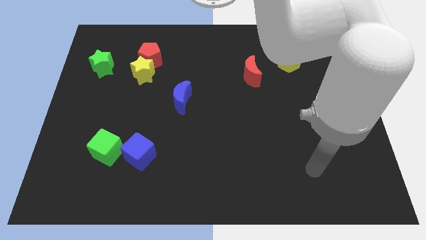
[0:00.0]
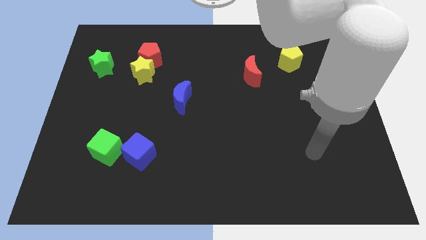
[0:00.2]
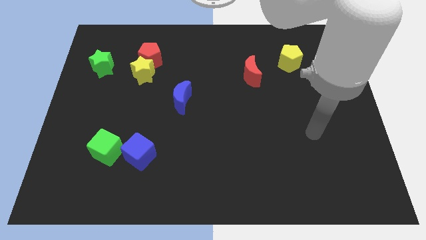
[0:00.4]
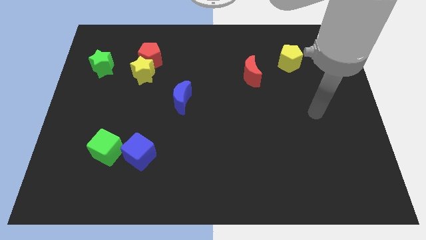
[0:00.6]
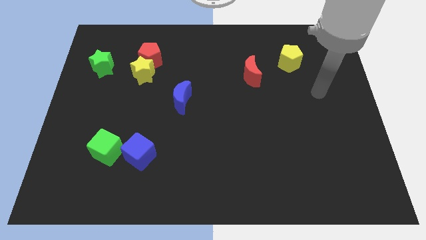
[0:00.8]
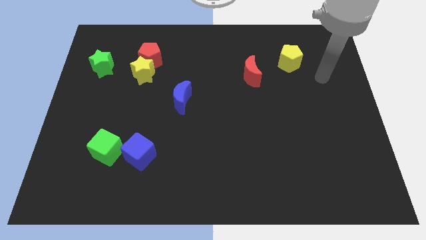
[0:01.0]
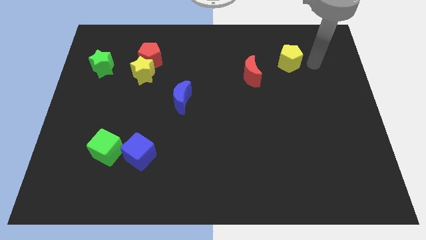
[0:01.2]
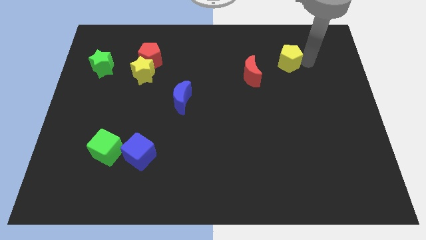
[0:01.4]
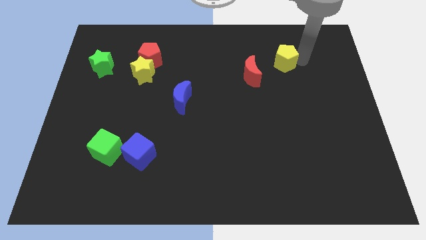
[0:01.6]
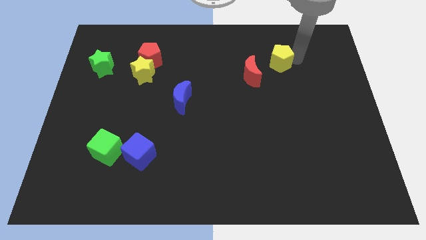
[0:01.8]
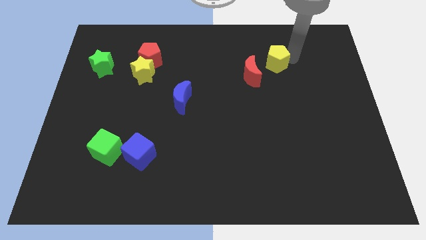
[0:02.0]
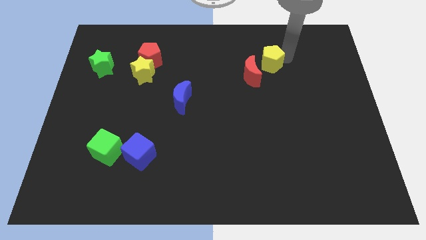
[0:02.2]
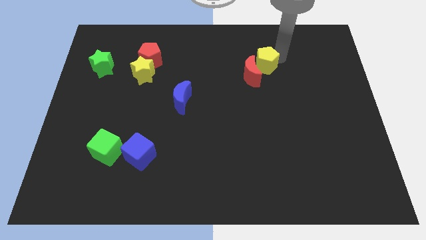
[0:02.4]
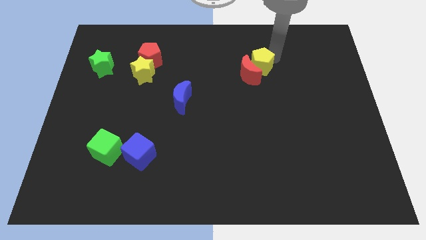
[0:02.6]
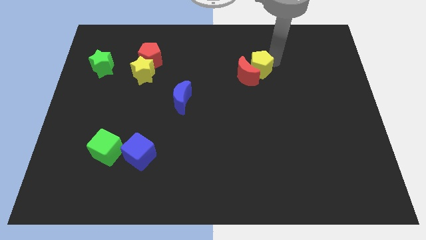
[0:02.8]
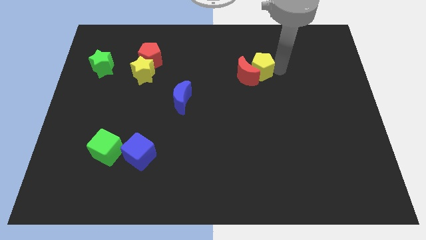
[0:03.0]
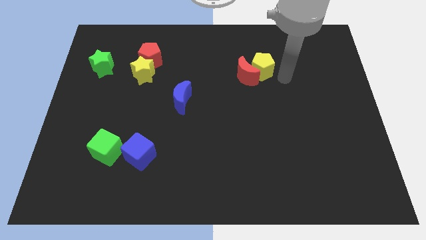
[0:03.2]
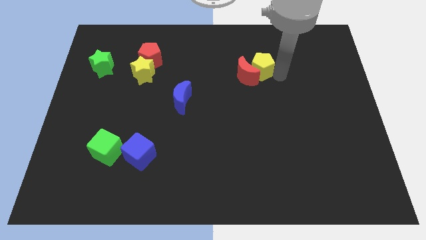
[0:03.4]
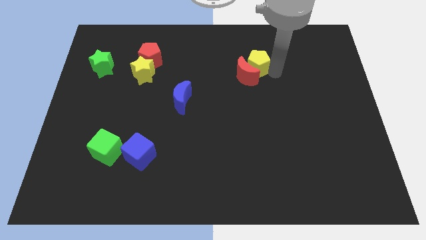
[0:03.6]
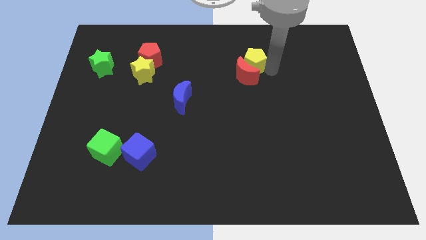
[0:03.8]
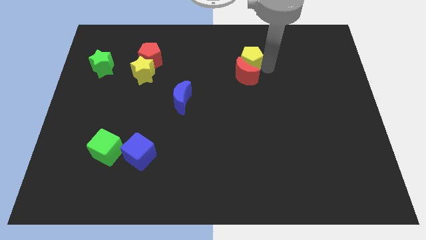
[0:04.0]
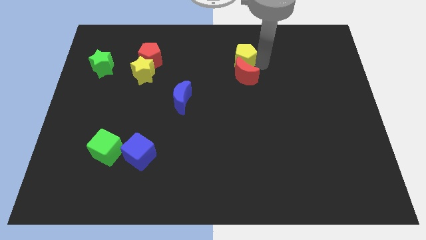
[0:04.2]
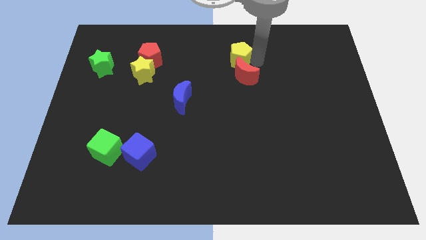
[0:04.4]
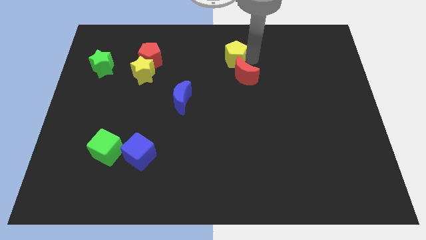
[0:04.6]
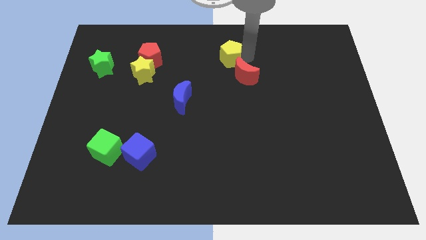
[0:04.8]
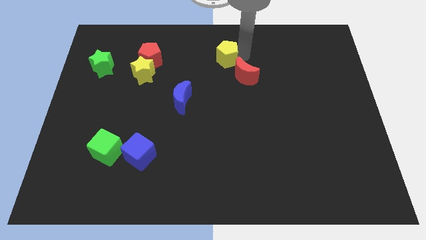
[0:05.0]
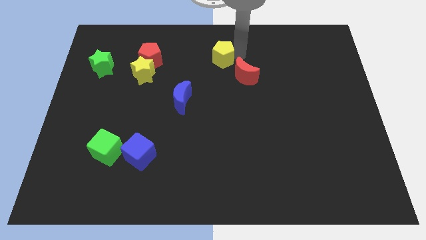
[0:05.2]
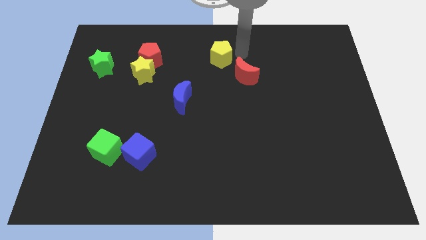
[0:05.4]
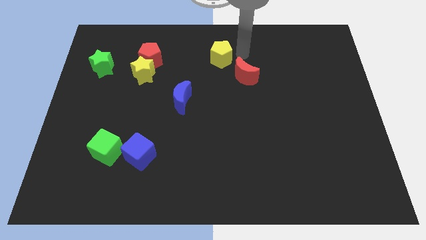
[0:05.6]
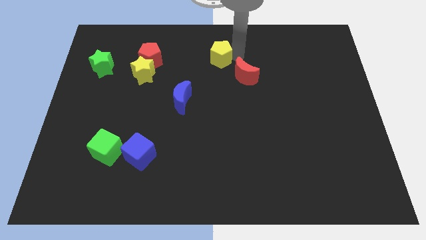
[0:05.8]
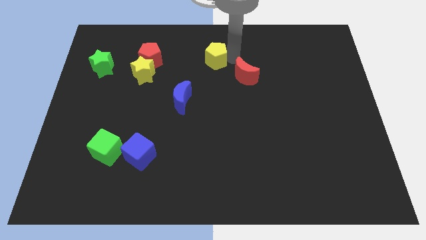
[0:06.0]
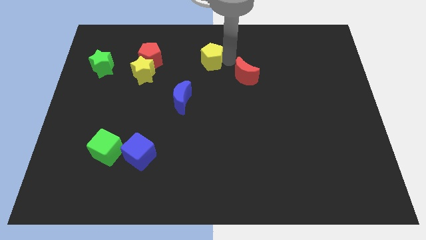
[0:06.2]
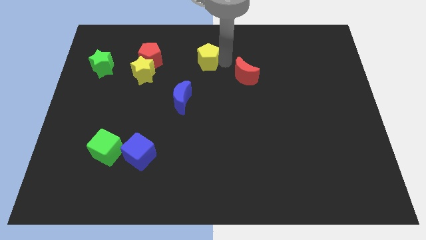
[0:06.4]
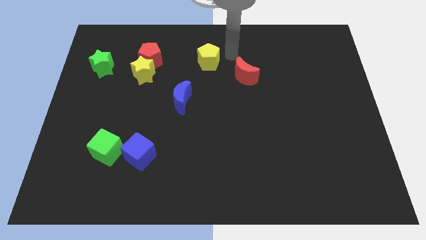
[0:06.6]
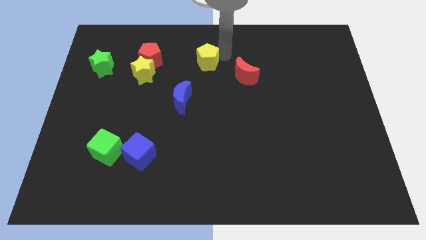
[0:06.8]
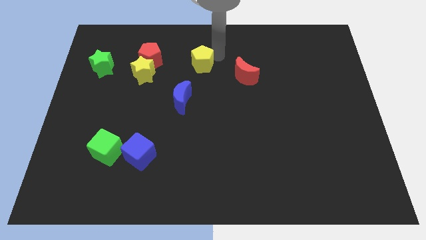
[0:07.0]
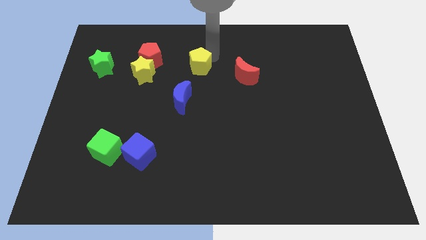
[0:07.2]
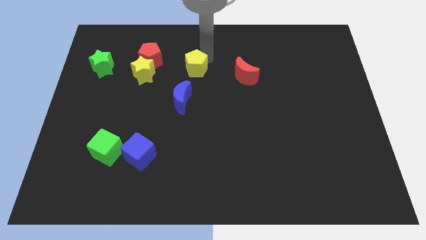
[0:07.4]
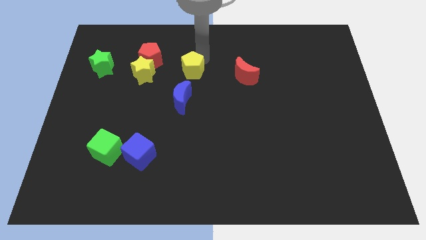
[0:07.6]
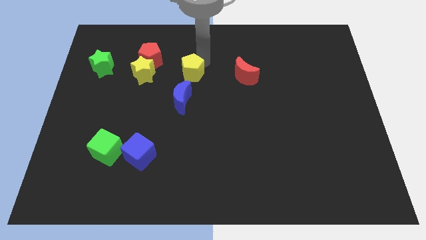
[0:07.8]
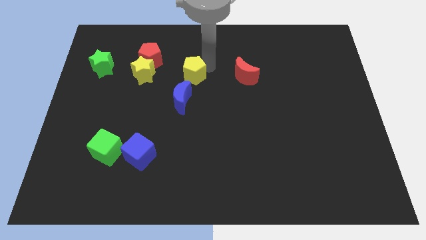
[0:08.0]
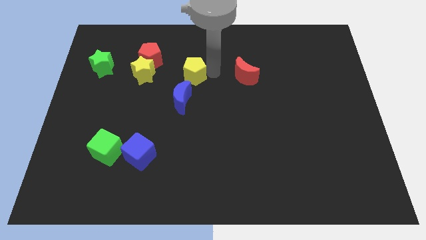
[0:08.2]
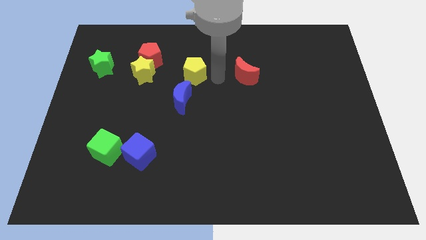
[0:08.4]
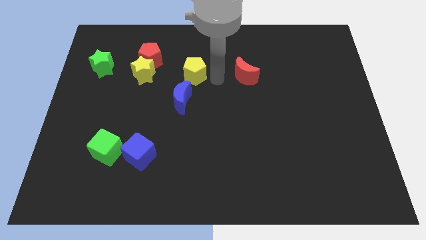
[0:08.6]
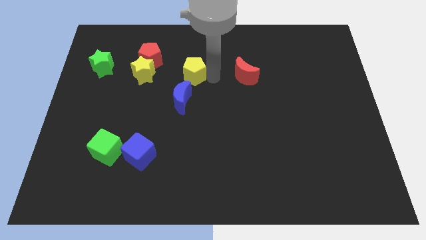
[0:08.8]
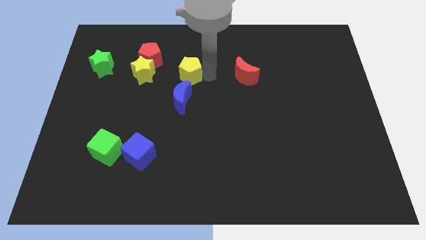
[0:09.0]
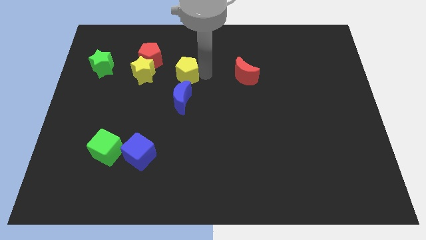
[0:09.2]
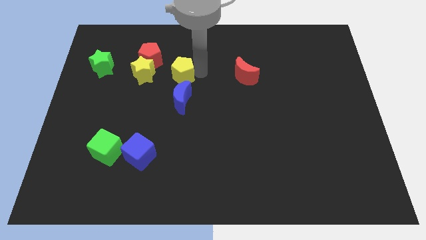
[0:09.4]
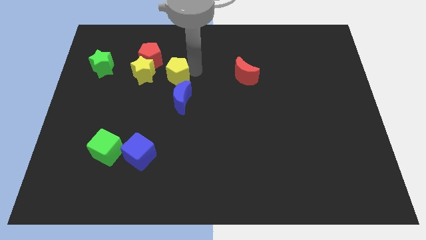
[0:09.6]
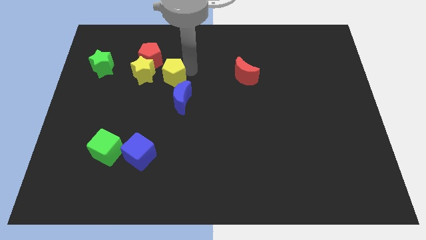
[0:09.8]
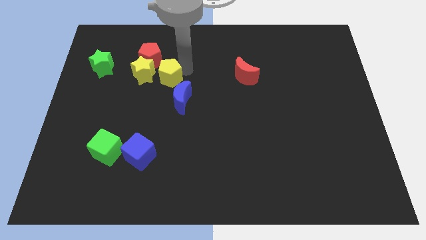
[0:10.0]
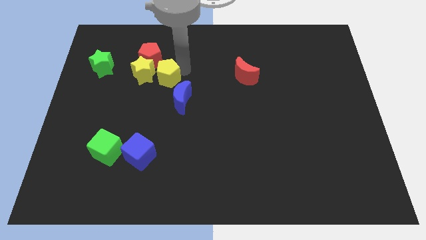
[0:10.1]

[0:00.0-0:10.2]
put the yellow pentagon close to the yellow star

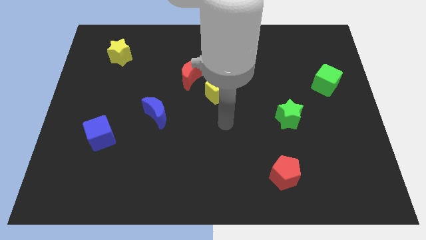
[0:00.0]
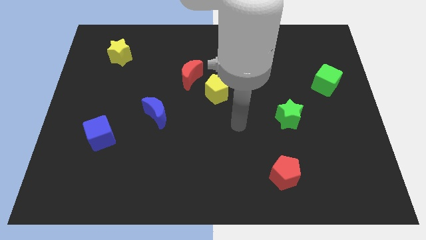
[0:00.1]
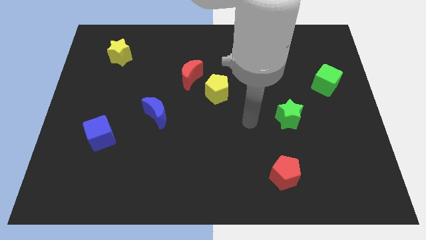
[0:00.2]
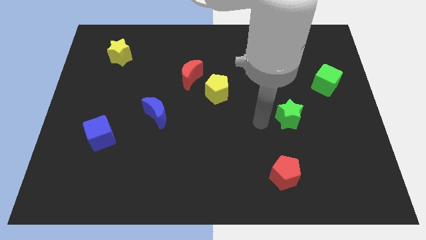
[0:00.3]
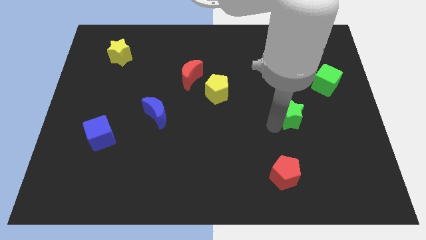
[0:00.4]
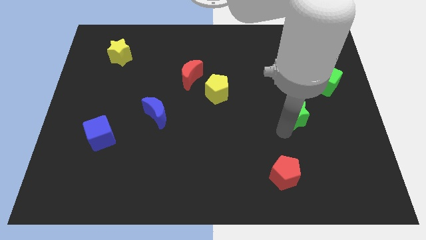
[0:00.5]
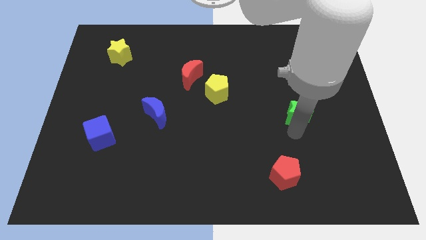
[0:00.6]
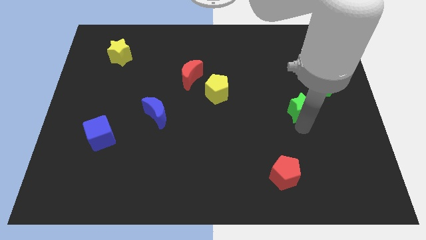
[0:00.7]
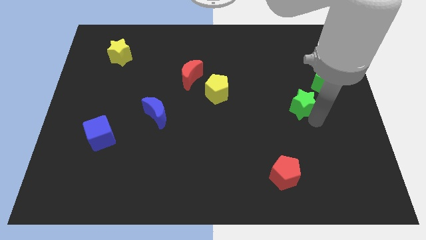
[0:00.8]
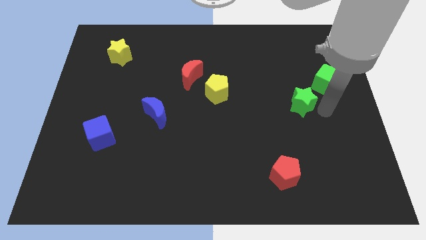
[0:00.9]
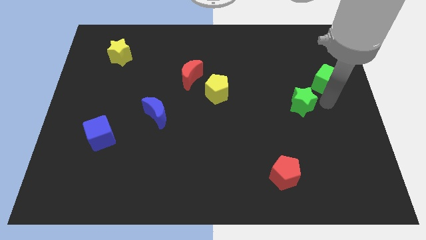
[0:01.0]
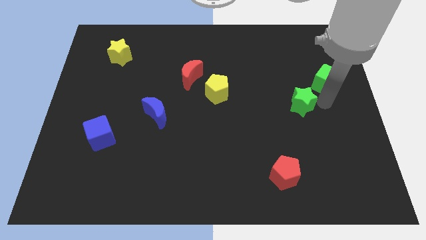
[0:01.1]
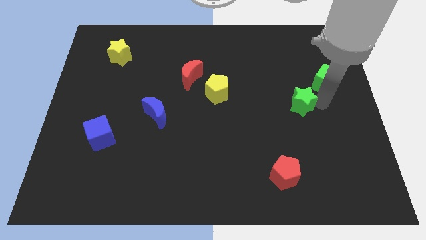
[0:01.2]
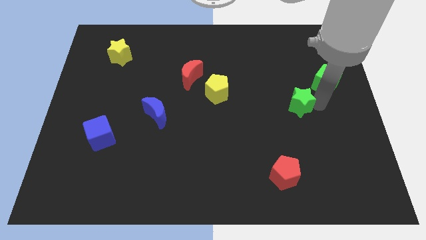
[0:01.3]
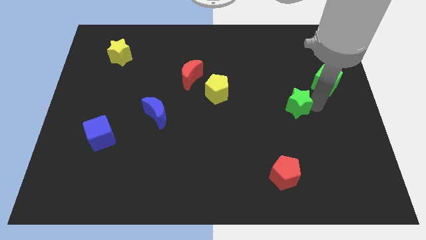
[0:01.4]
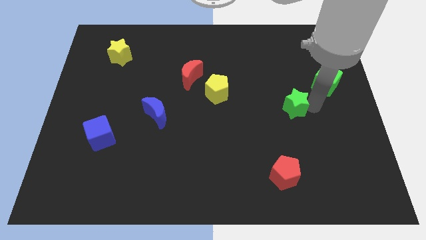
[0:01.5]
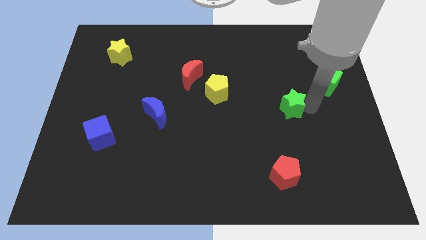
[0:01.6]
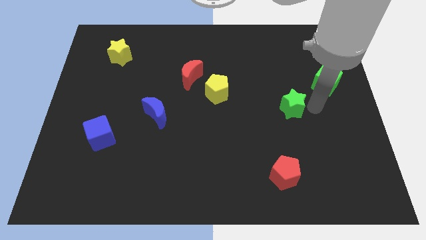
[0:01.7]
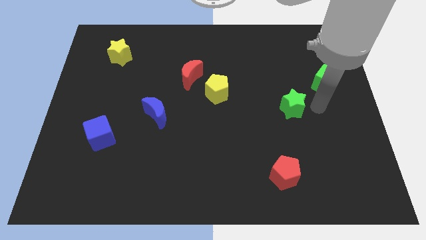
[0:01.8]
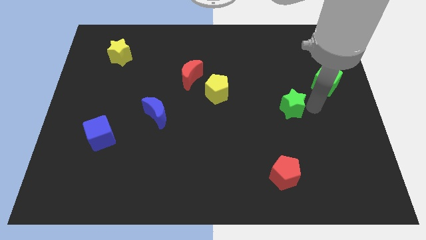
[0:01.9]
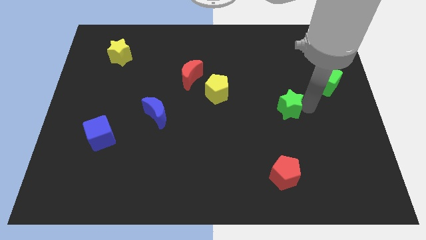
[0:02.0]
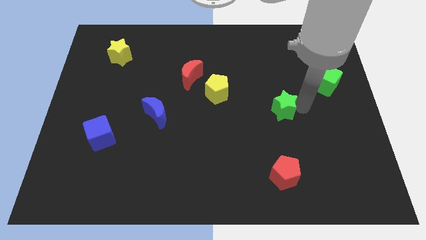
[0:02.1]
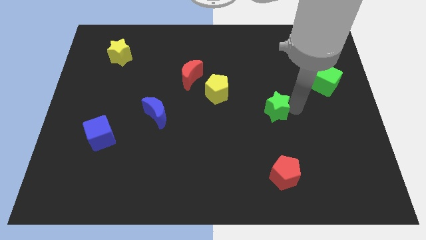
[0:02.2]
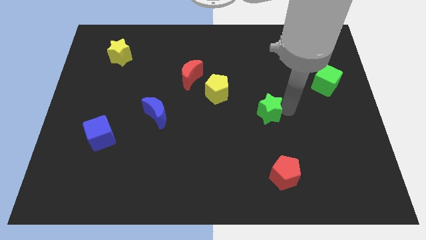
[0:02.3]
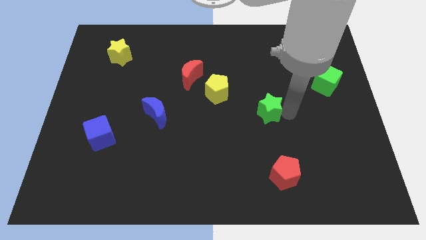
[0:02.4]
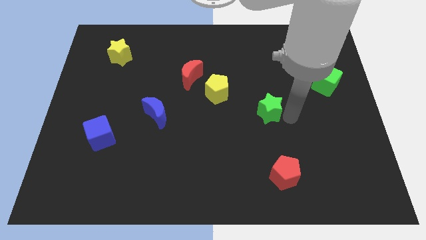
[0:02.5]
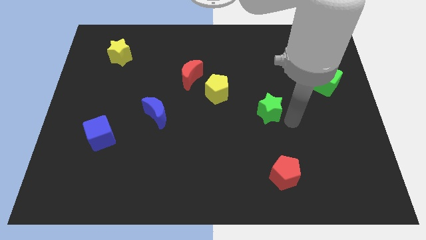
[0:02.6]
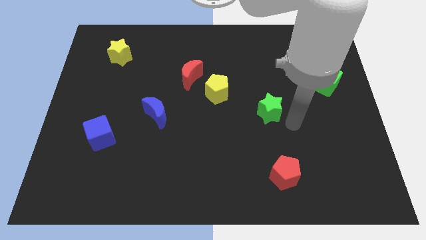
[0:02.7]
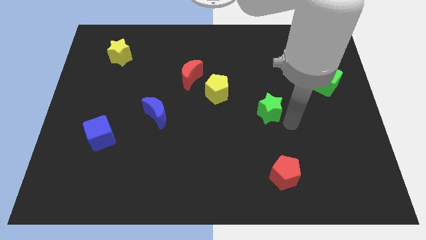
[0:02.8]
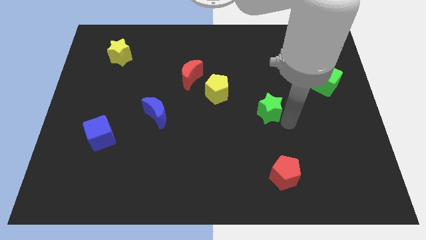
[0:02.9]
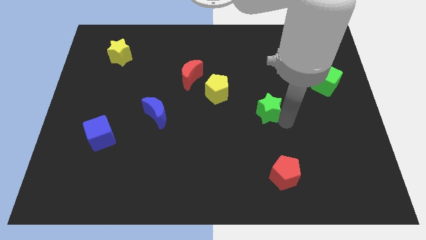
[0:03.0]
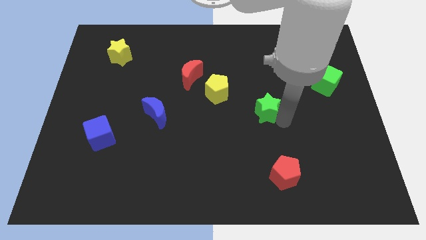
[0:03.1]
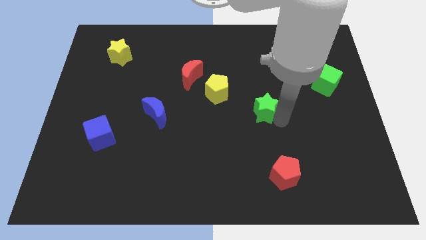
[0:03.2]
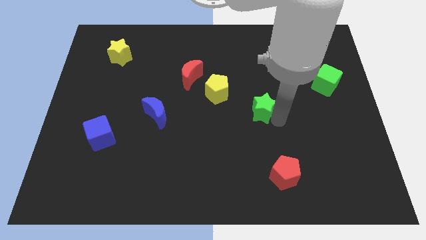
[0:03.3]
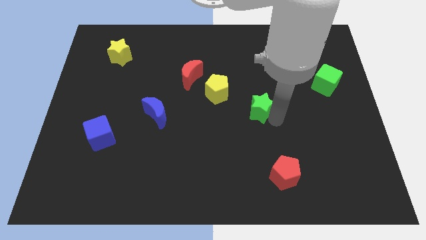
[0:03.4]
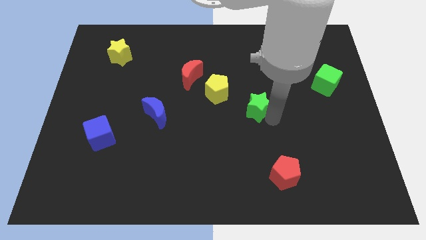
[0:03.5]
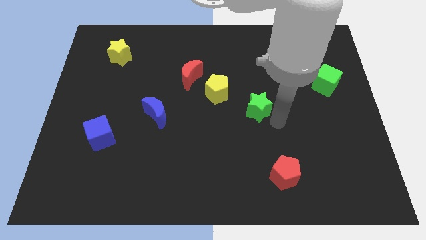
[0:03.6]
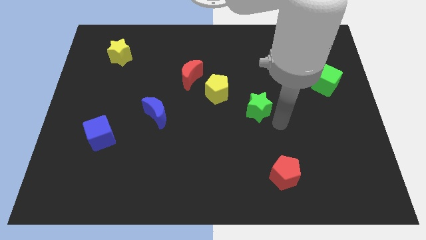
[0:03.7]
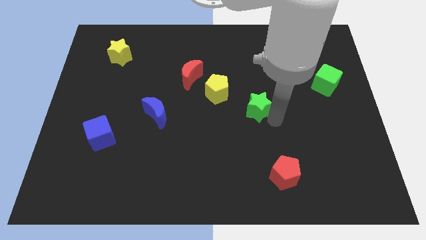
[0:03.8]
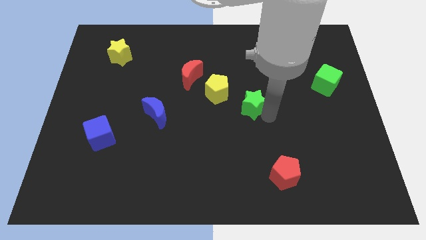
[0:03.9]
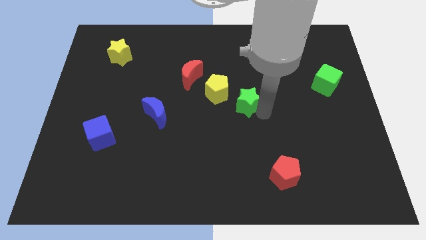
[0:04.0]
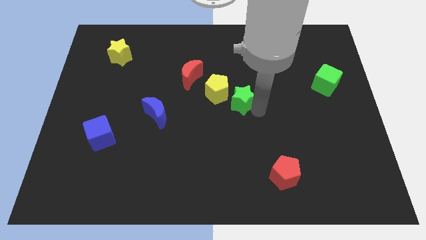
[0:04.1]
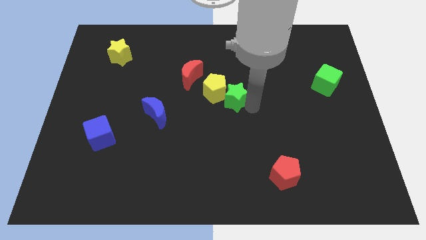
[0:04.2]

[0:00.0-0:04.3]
move the green star to the yellow pentagon
